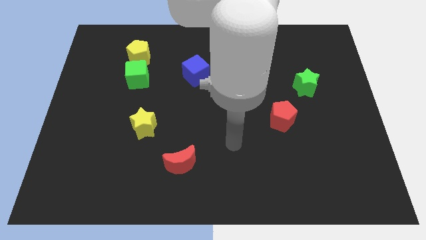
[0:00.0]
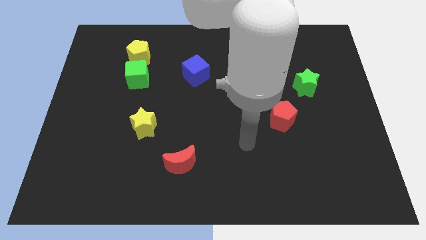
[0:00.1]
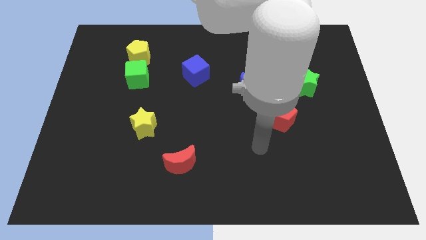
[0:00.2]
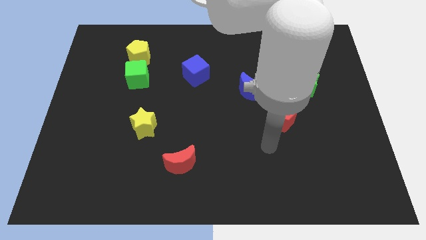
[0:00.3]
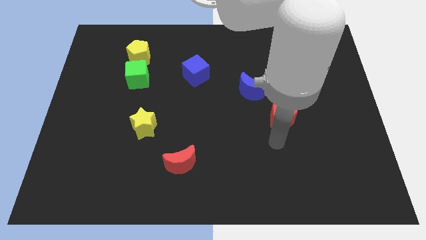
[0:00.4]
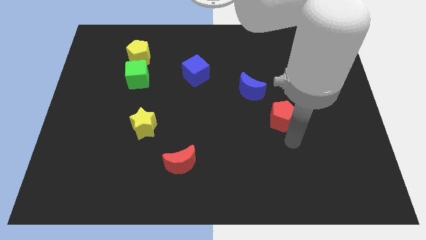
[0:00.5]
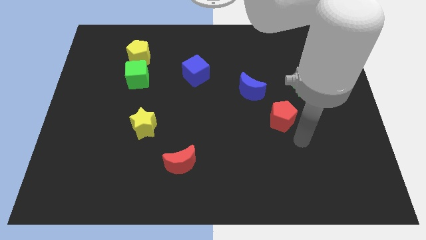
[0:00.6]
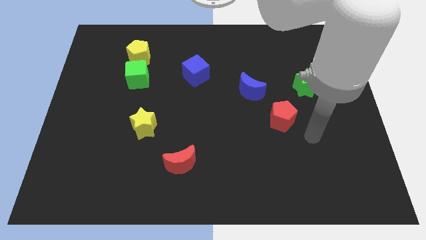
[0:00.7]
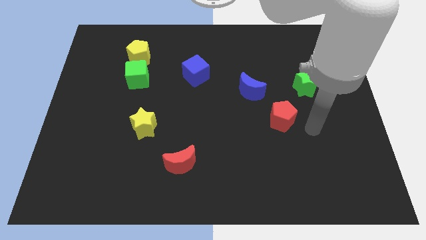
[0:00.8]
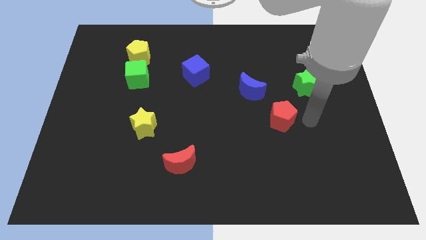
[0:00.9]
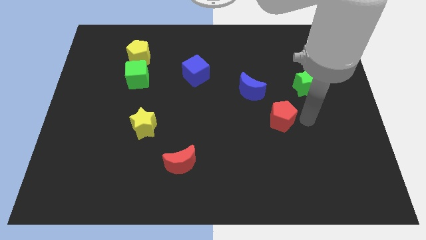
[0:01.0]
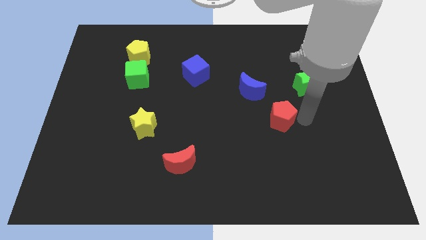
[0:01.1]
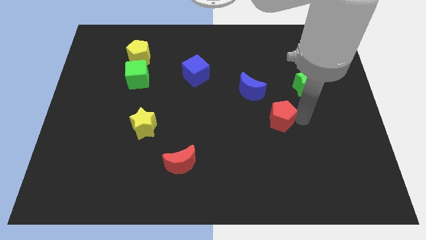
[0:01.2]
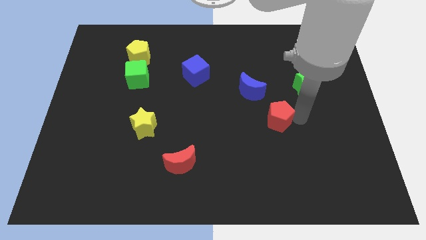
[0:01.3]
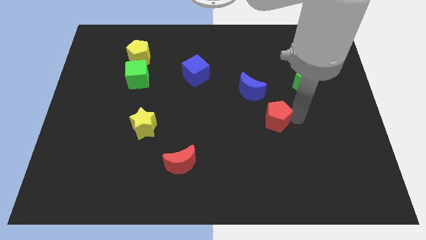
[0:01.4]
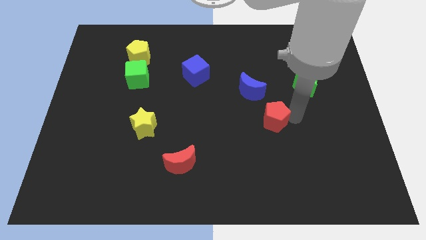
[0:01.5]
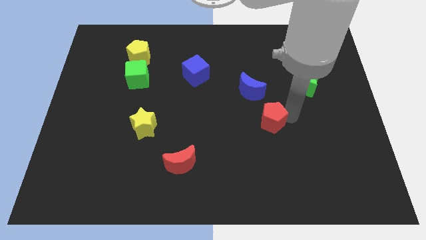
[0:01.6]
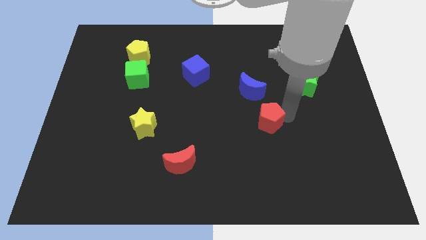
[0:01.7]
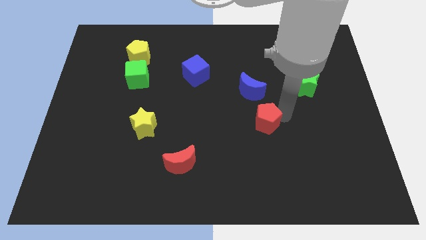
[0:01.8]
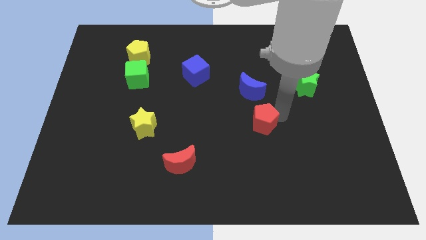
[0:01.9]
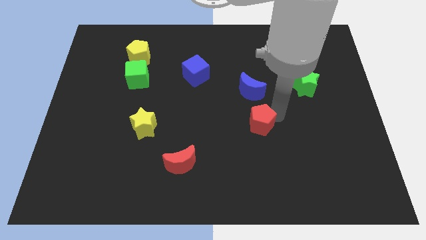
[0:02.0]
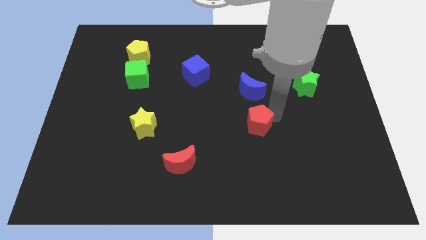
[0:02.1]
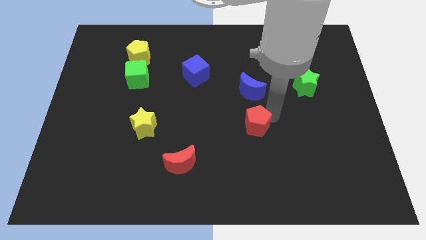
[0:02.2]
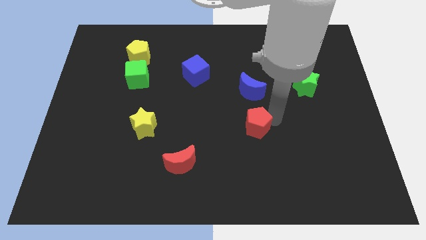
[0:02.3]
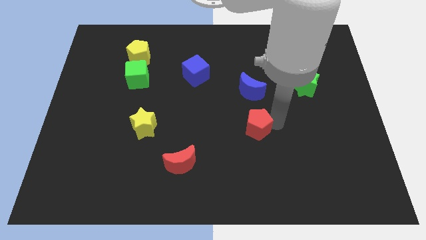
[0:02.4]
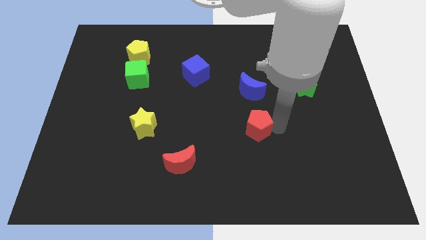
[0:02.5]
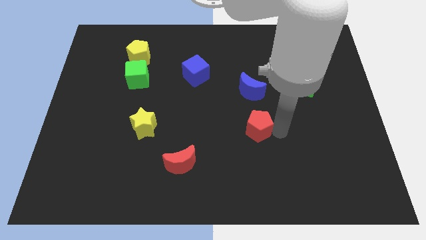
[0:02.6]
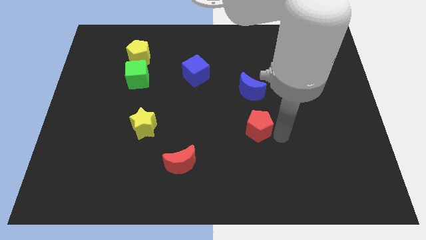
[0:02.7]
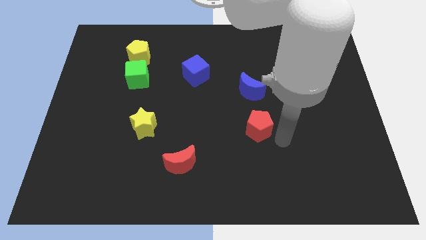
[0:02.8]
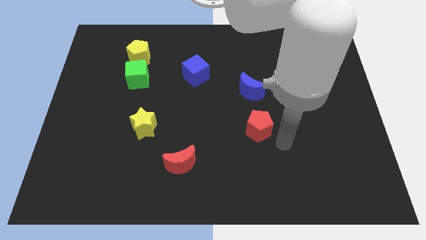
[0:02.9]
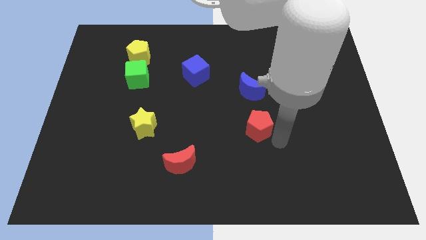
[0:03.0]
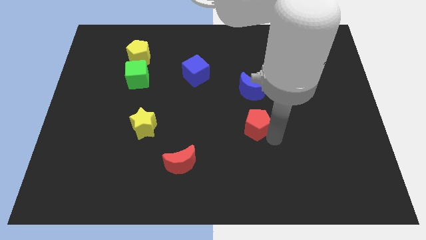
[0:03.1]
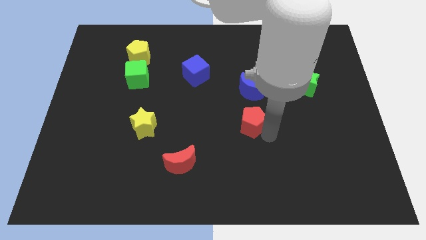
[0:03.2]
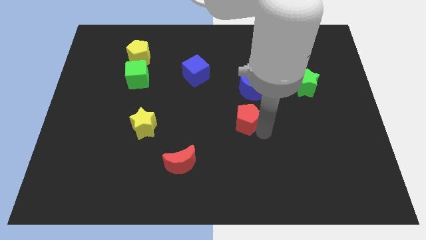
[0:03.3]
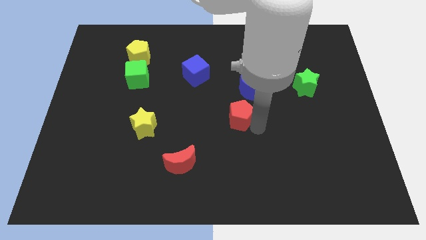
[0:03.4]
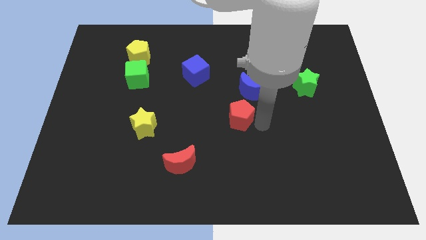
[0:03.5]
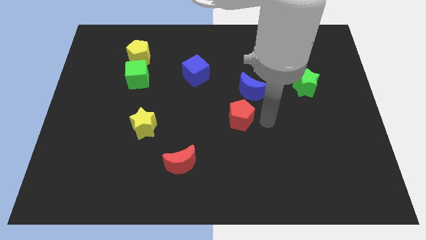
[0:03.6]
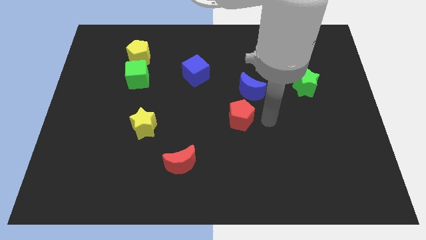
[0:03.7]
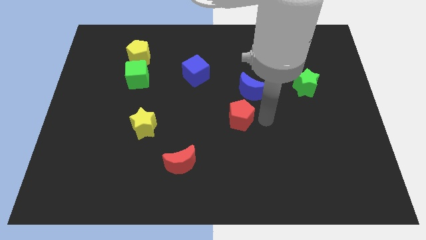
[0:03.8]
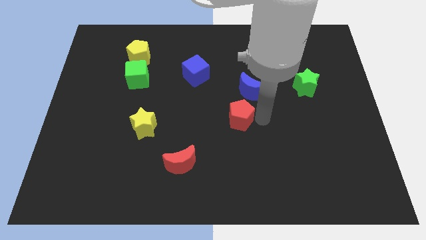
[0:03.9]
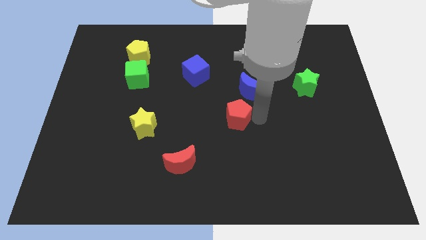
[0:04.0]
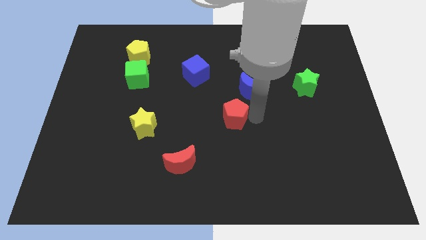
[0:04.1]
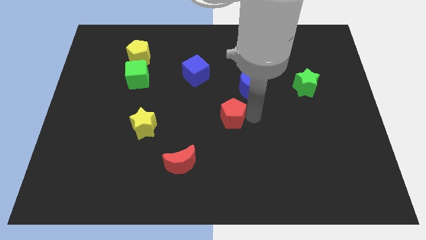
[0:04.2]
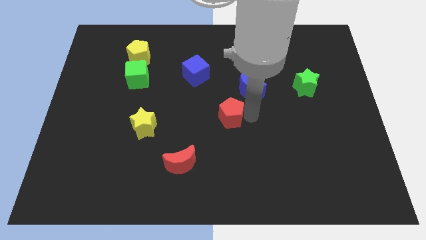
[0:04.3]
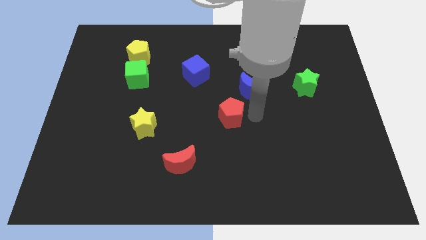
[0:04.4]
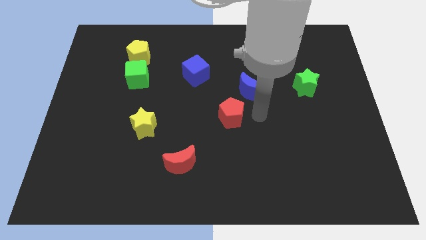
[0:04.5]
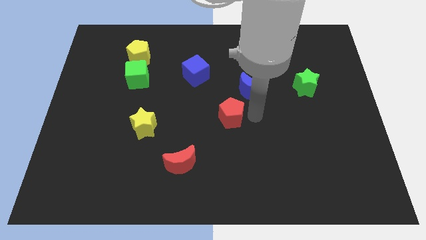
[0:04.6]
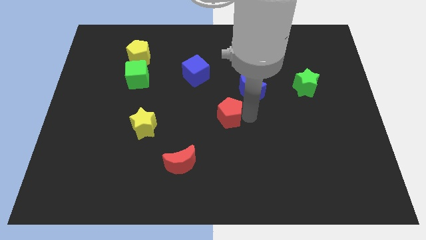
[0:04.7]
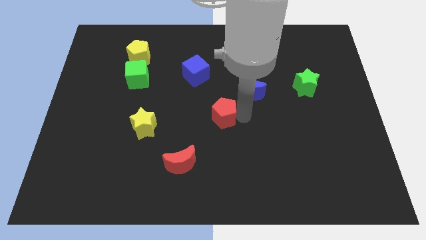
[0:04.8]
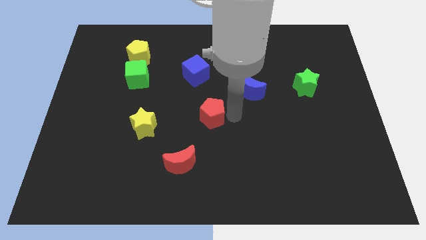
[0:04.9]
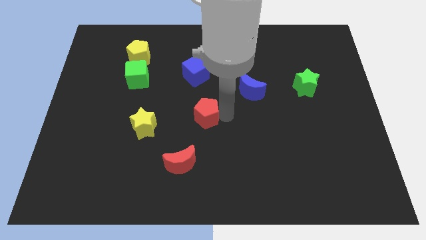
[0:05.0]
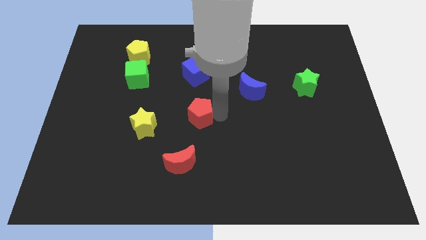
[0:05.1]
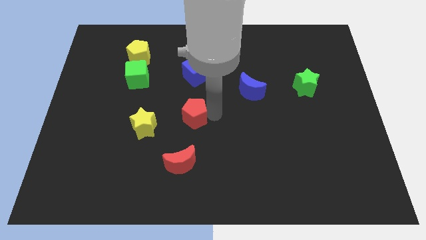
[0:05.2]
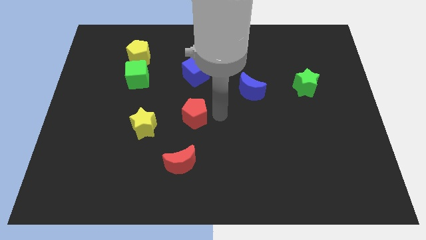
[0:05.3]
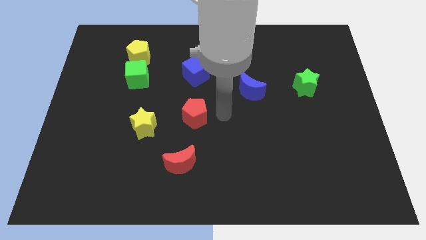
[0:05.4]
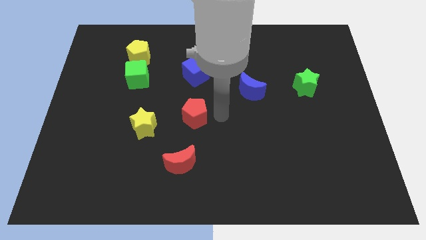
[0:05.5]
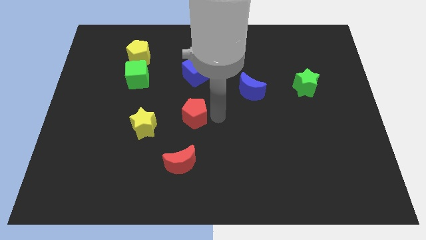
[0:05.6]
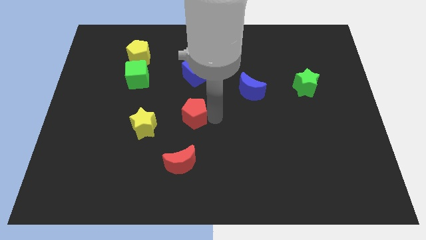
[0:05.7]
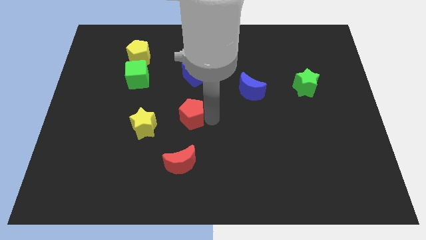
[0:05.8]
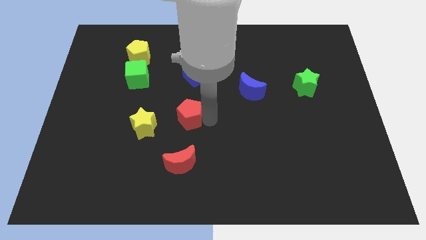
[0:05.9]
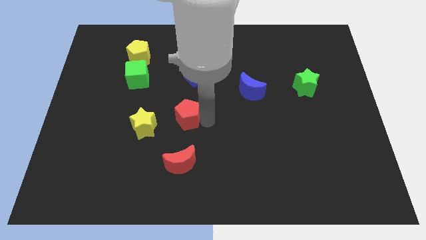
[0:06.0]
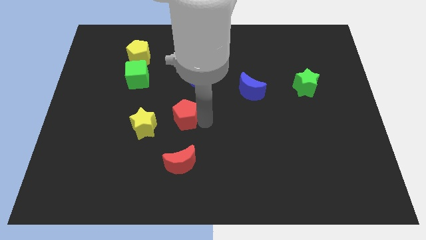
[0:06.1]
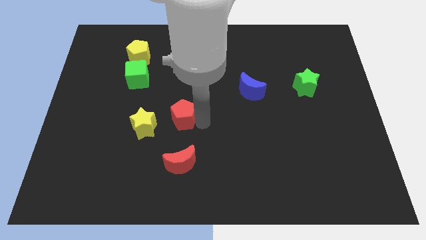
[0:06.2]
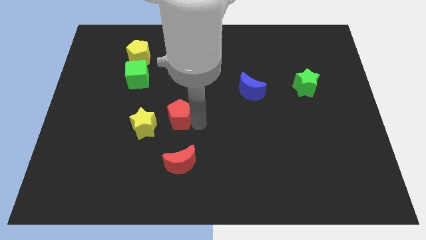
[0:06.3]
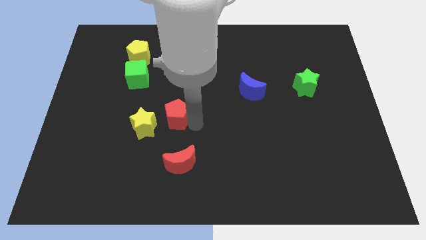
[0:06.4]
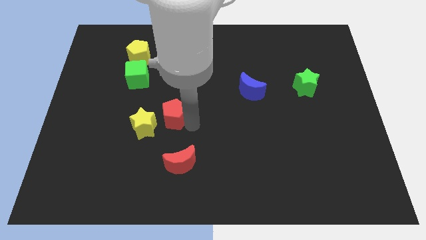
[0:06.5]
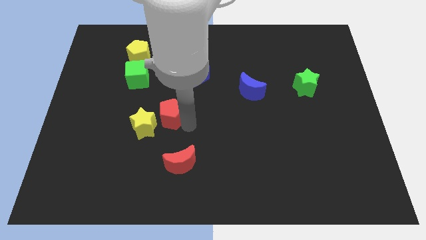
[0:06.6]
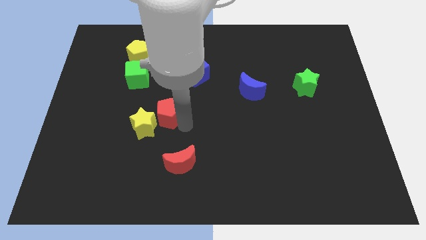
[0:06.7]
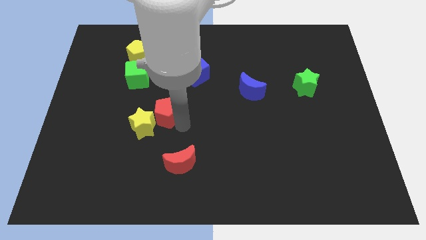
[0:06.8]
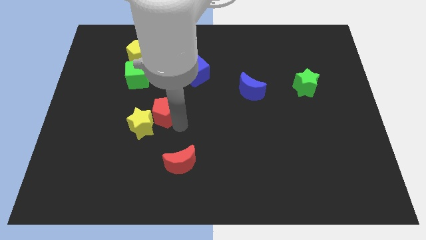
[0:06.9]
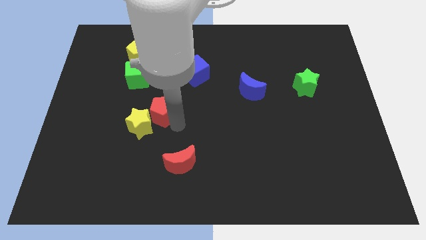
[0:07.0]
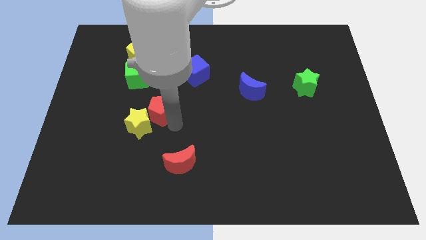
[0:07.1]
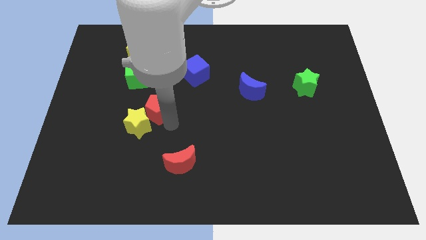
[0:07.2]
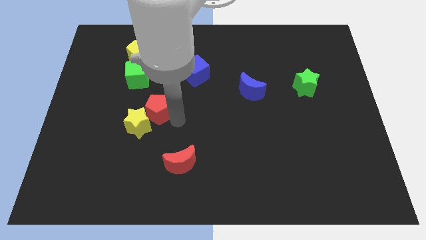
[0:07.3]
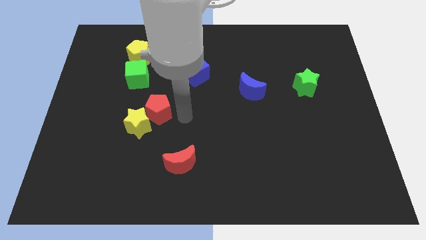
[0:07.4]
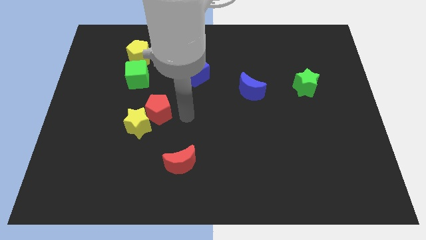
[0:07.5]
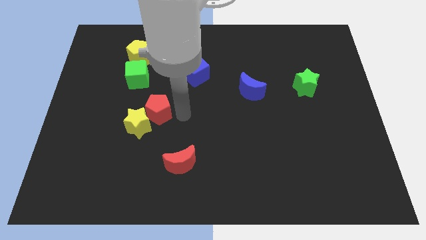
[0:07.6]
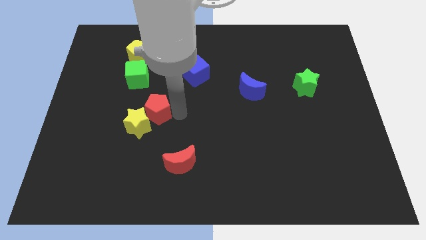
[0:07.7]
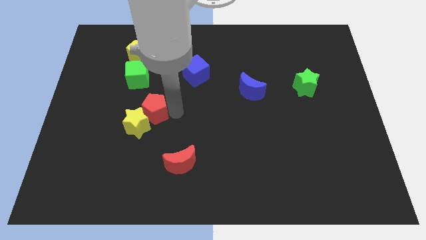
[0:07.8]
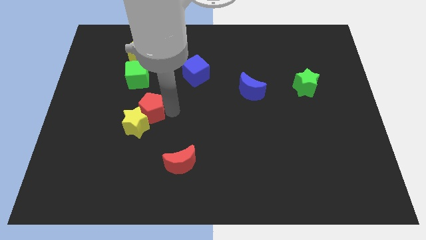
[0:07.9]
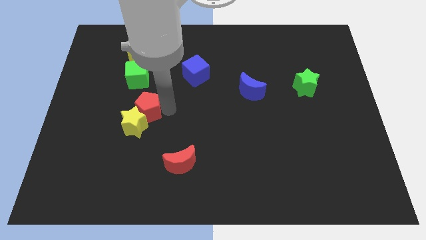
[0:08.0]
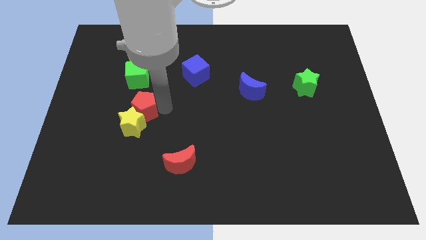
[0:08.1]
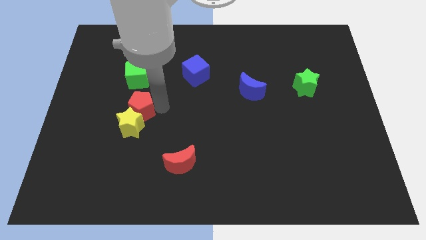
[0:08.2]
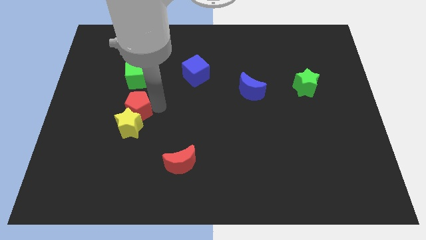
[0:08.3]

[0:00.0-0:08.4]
slide the red pentagon to the top left side of the yellow star
